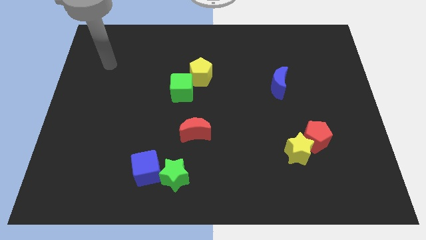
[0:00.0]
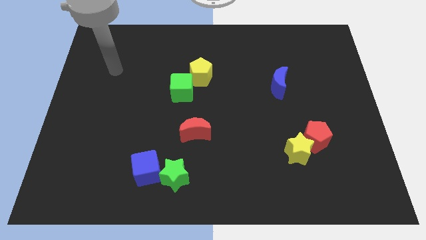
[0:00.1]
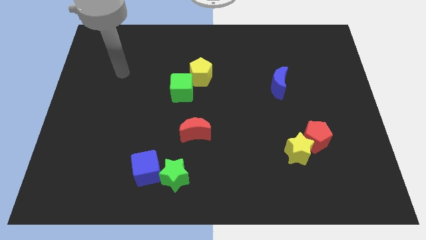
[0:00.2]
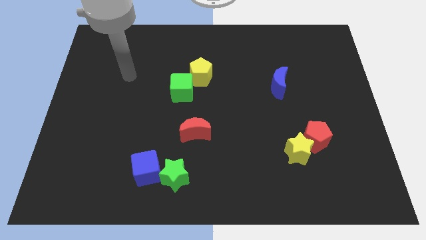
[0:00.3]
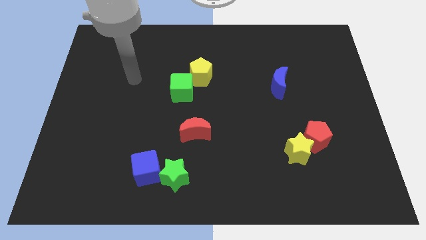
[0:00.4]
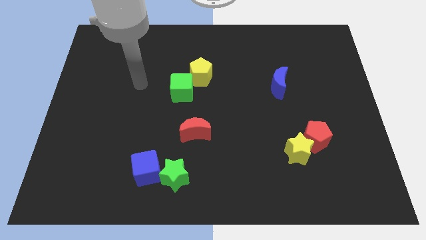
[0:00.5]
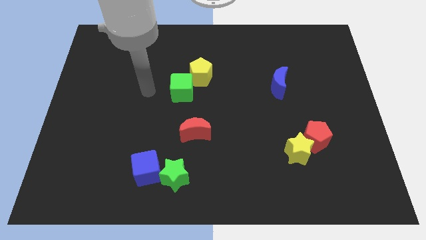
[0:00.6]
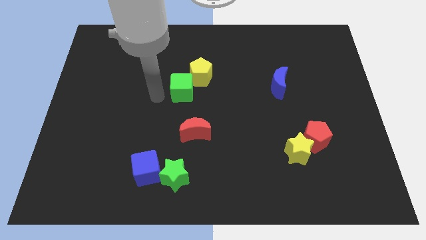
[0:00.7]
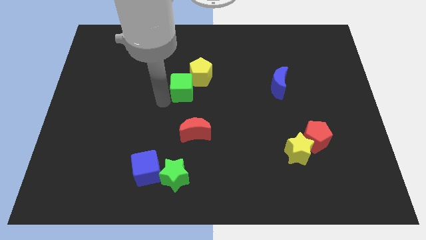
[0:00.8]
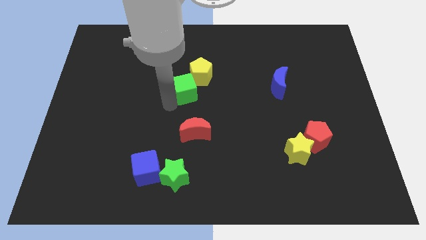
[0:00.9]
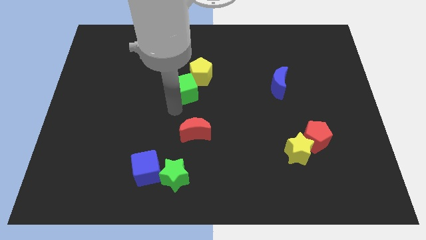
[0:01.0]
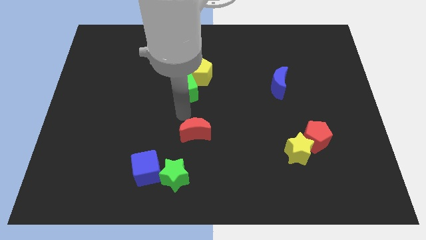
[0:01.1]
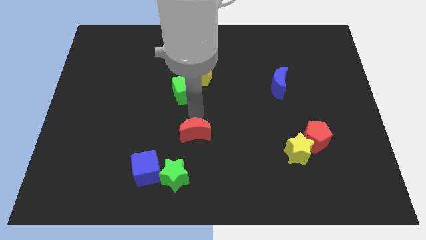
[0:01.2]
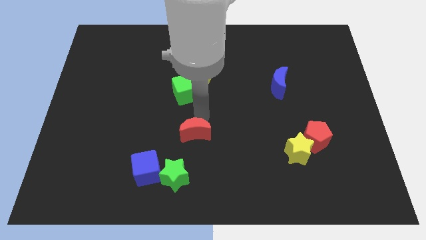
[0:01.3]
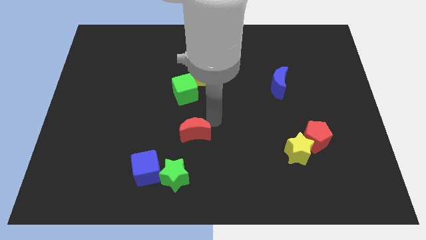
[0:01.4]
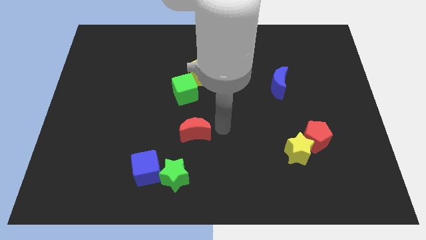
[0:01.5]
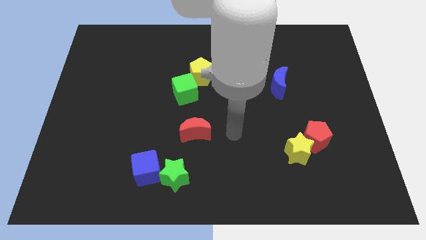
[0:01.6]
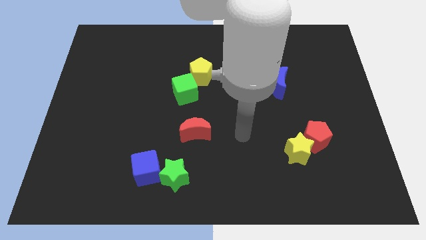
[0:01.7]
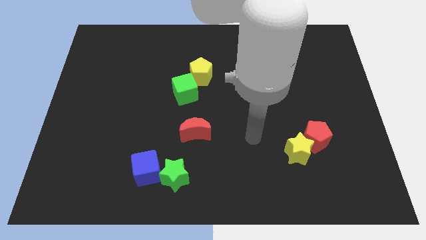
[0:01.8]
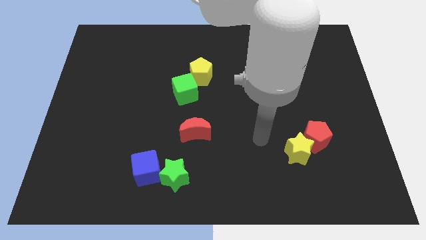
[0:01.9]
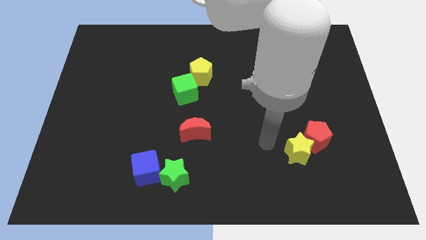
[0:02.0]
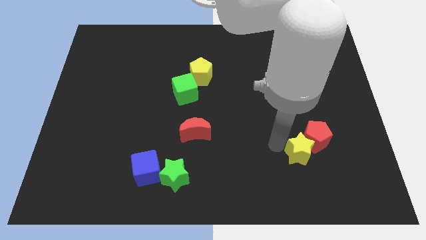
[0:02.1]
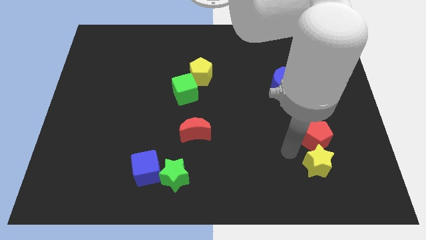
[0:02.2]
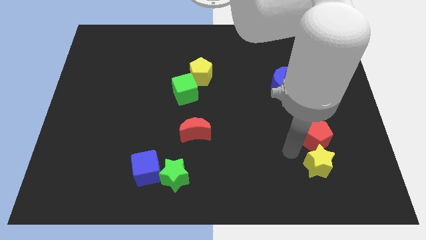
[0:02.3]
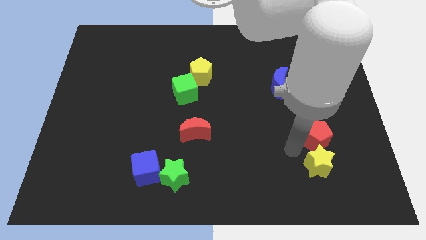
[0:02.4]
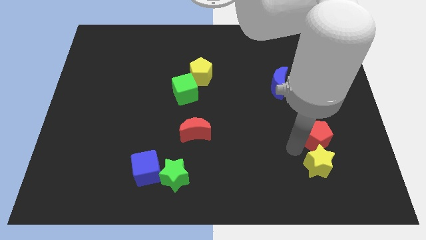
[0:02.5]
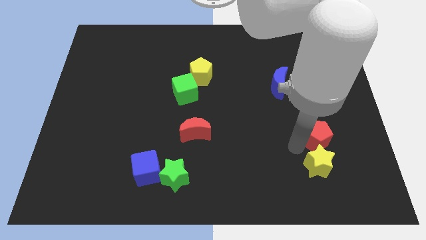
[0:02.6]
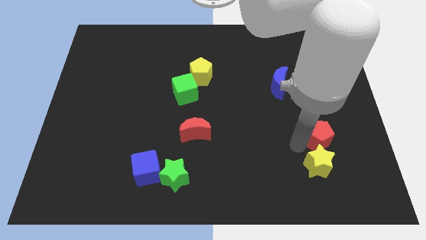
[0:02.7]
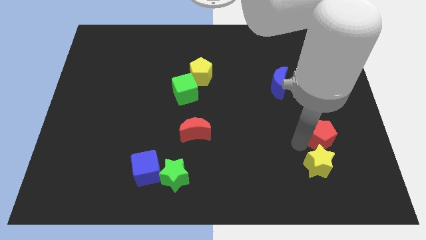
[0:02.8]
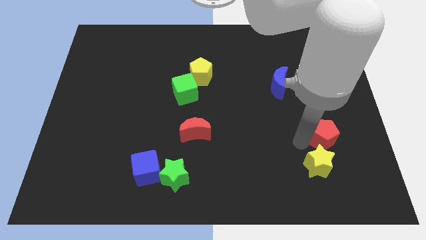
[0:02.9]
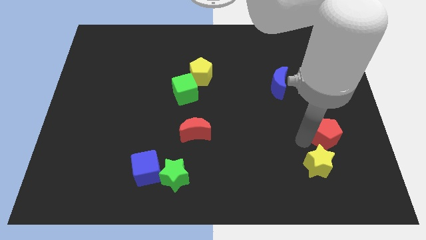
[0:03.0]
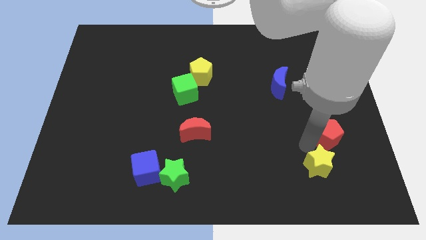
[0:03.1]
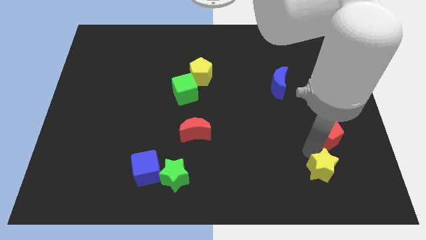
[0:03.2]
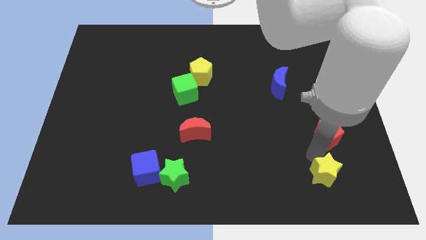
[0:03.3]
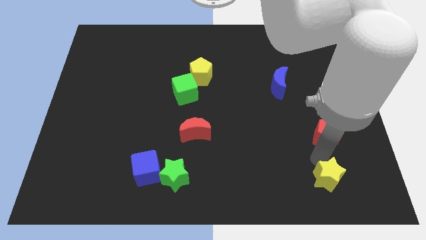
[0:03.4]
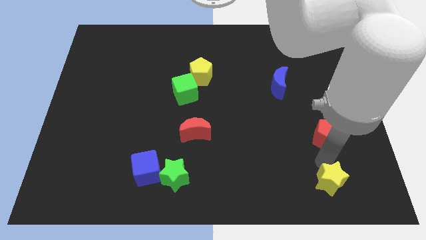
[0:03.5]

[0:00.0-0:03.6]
separate the red pentagon from the yellow star

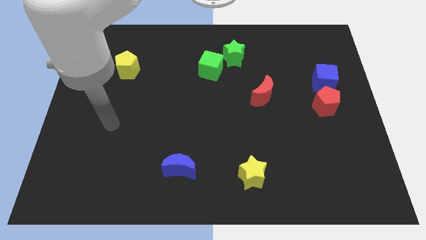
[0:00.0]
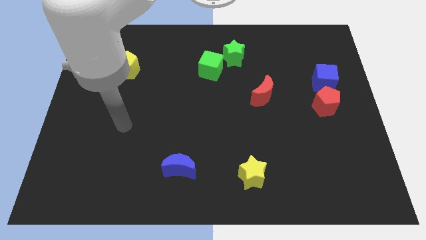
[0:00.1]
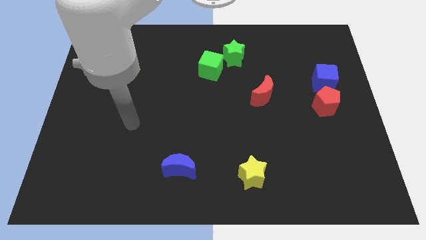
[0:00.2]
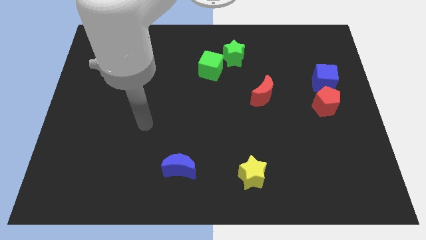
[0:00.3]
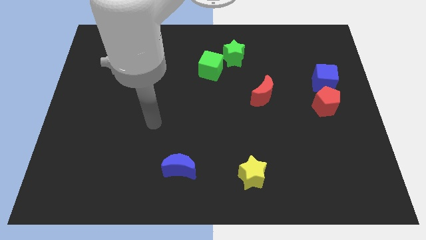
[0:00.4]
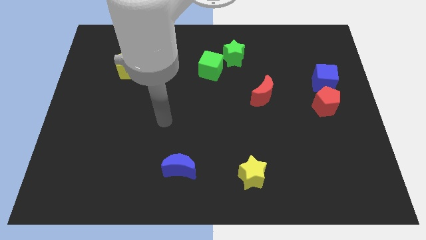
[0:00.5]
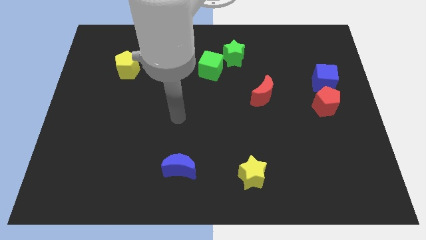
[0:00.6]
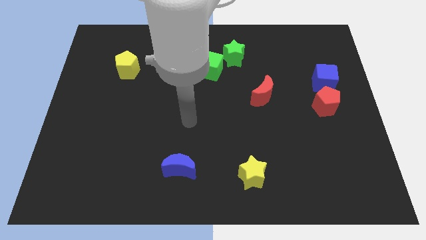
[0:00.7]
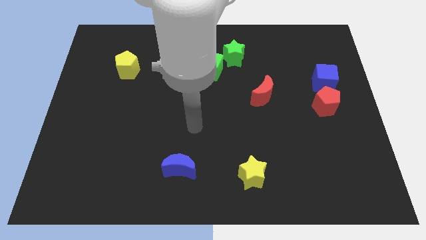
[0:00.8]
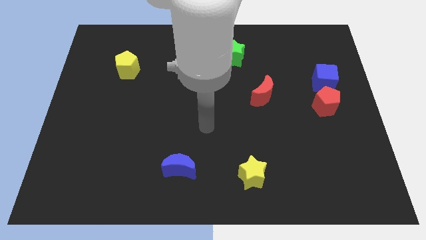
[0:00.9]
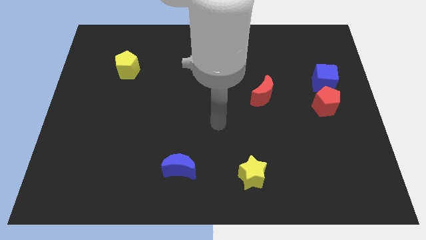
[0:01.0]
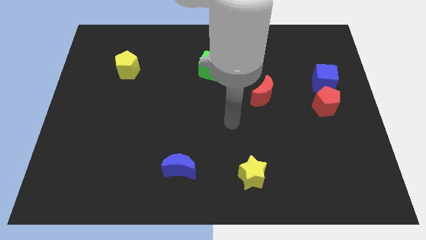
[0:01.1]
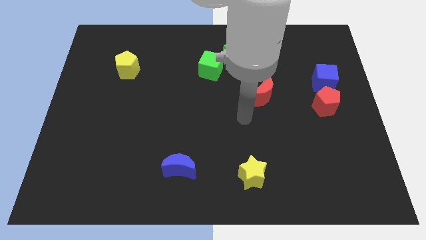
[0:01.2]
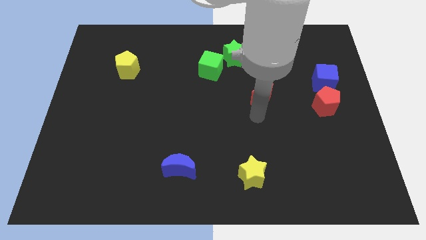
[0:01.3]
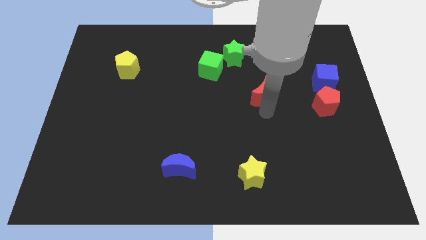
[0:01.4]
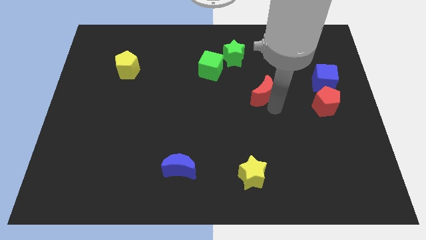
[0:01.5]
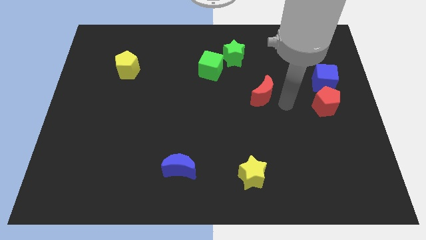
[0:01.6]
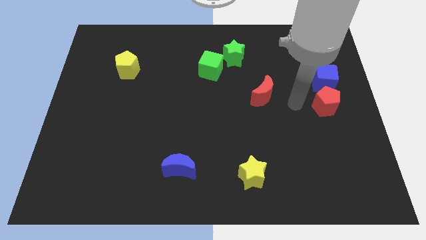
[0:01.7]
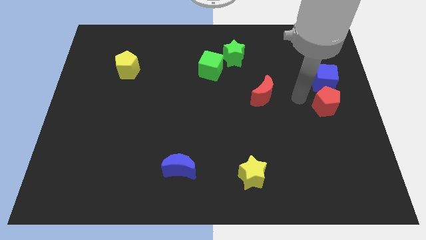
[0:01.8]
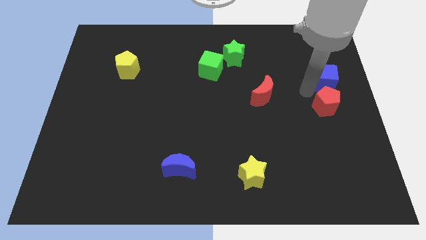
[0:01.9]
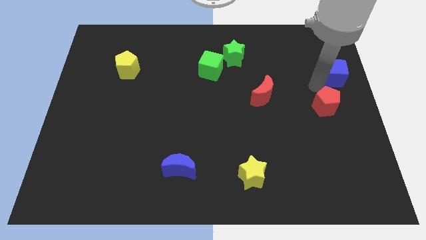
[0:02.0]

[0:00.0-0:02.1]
move the red pentagon away from the blue cube

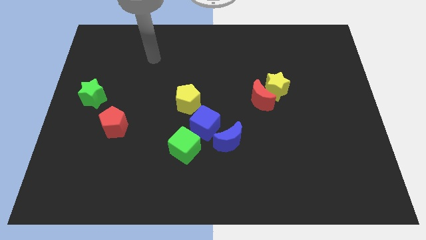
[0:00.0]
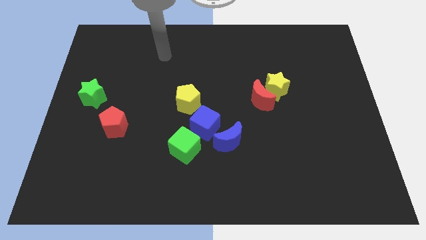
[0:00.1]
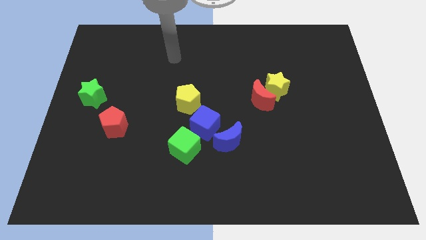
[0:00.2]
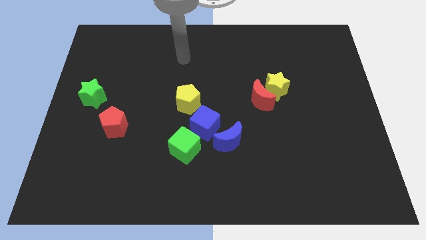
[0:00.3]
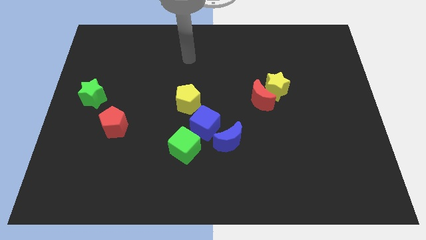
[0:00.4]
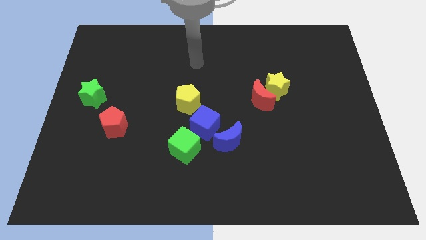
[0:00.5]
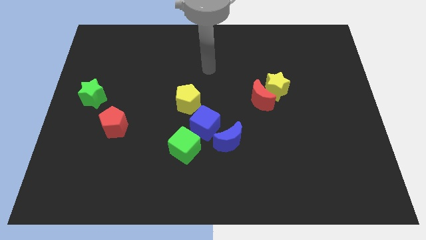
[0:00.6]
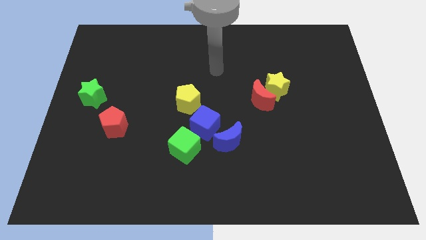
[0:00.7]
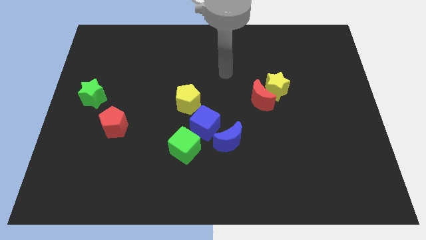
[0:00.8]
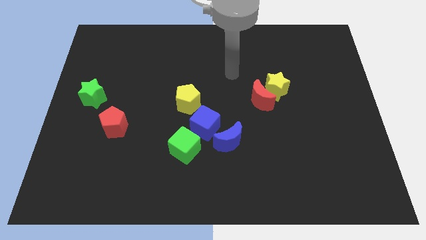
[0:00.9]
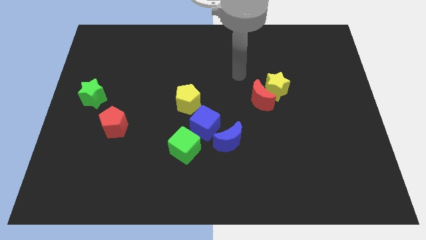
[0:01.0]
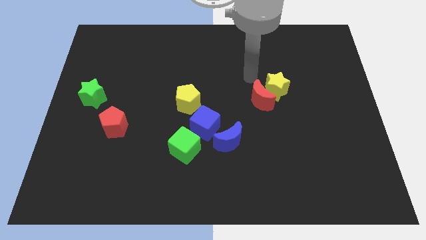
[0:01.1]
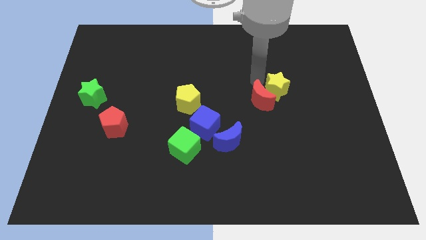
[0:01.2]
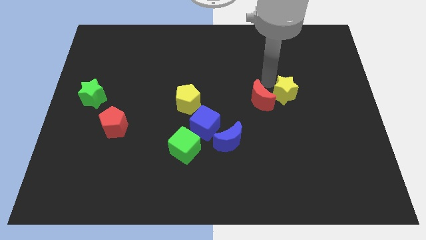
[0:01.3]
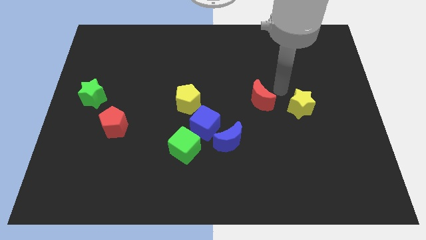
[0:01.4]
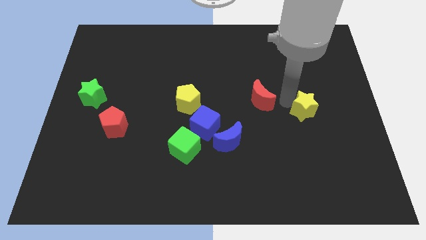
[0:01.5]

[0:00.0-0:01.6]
separate the red moon from the yellow star

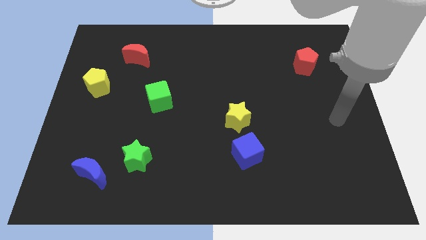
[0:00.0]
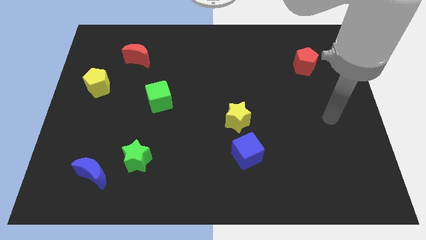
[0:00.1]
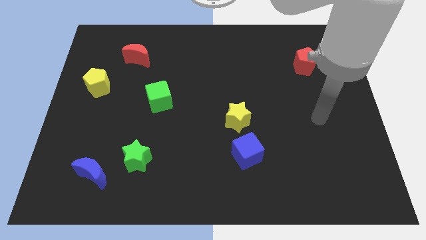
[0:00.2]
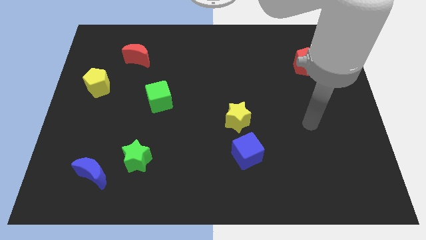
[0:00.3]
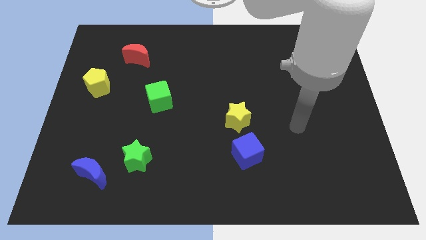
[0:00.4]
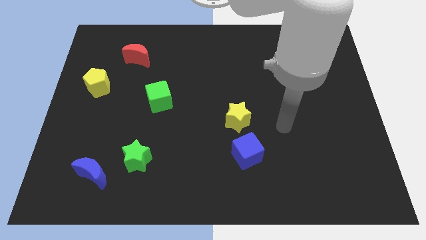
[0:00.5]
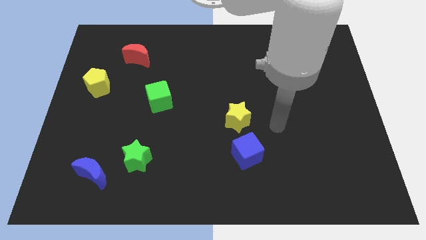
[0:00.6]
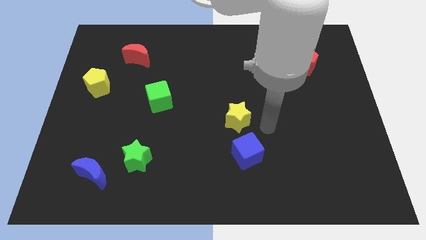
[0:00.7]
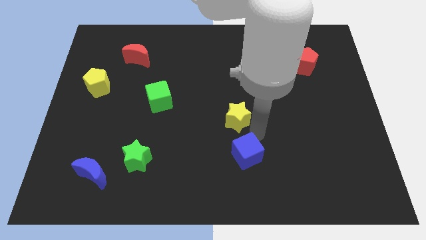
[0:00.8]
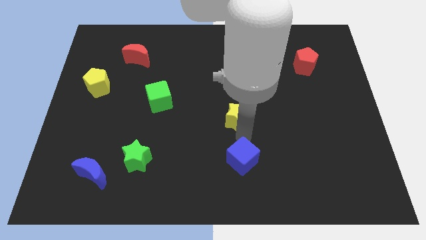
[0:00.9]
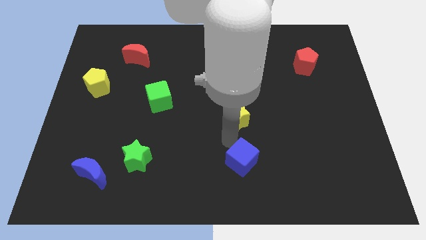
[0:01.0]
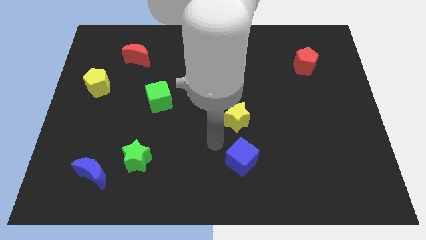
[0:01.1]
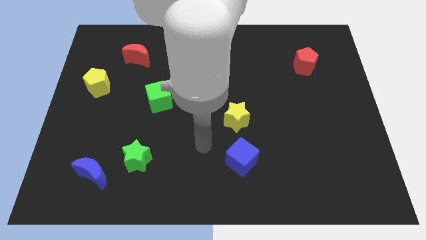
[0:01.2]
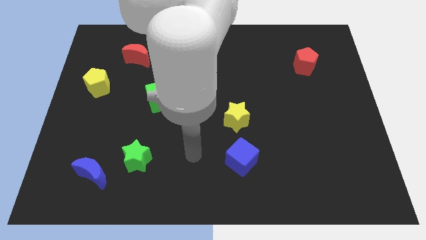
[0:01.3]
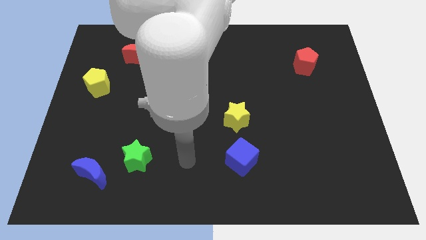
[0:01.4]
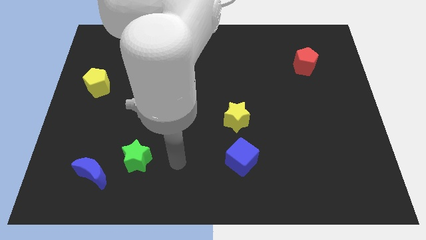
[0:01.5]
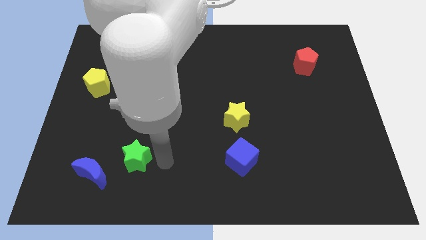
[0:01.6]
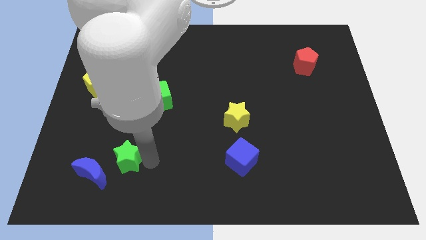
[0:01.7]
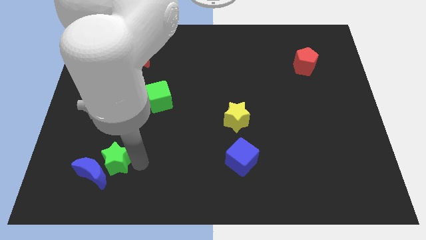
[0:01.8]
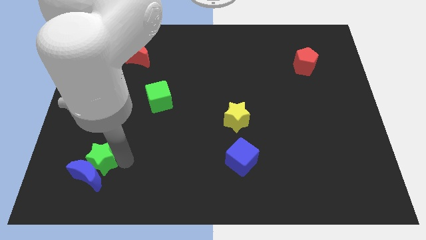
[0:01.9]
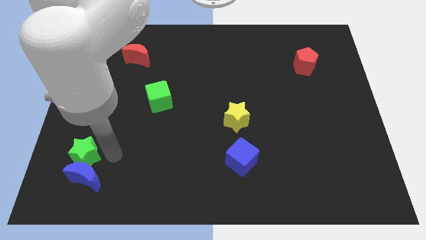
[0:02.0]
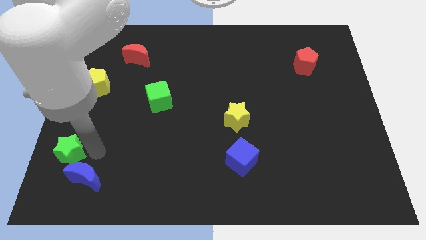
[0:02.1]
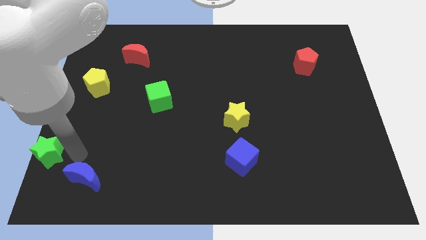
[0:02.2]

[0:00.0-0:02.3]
move the blue moon away from the green star

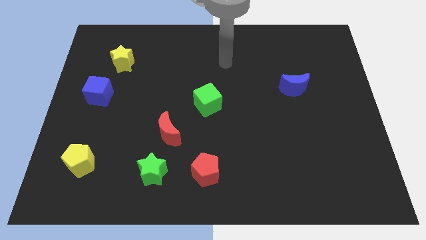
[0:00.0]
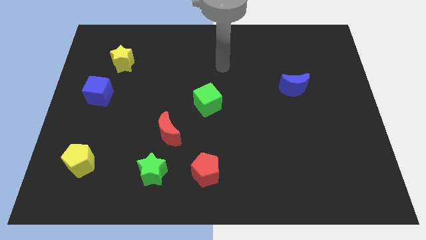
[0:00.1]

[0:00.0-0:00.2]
pull the red moon apart from the green star
